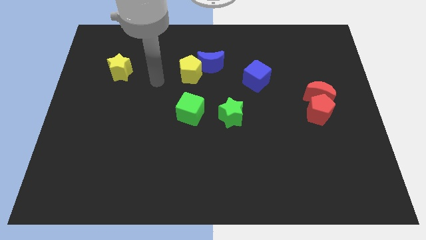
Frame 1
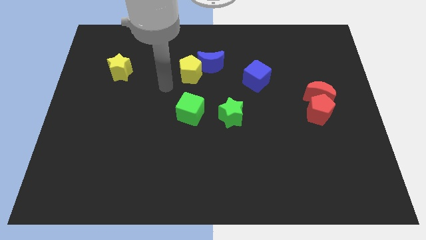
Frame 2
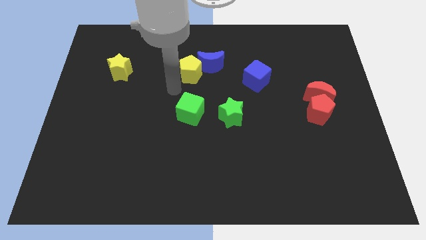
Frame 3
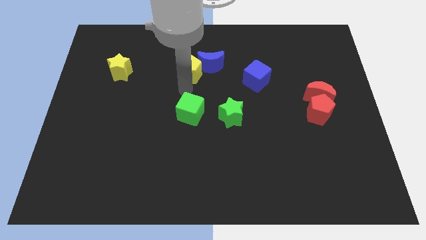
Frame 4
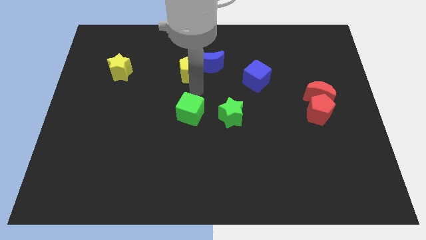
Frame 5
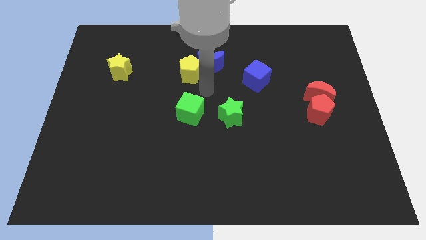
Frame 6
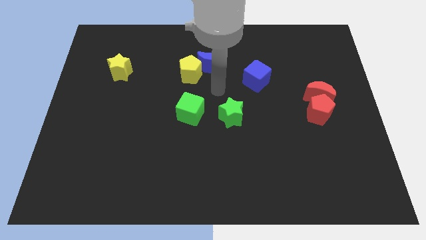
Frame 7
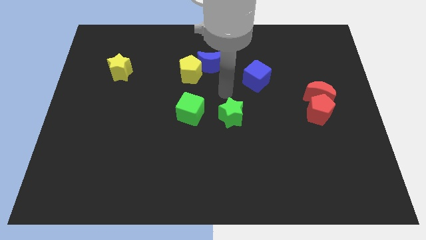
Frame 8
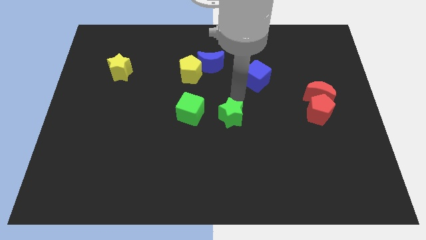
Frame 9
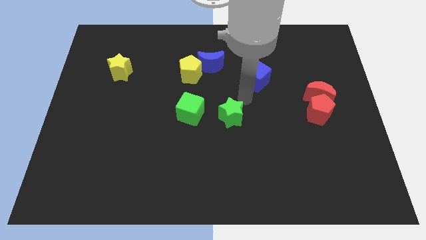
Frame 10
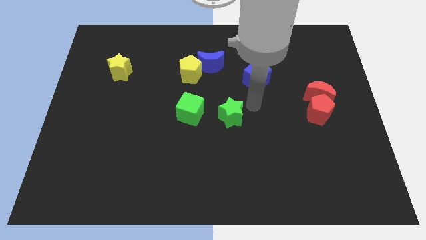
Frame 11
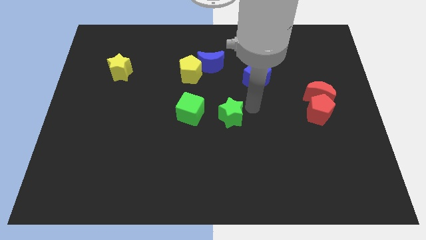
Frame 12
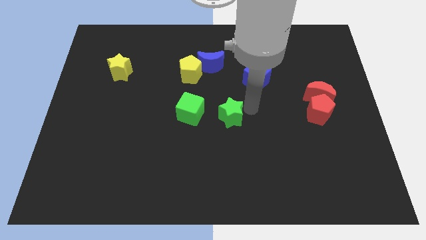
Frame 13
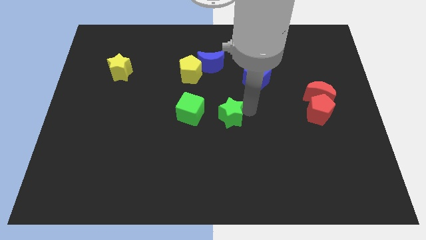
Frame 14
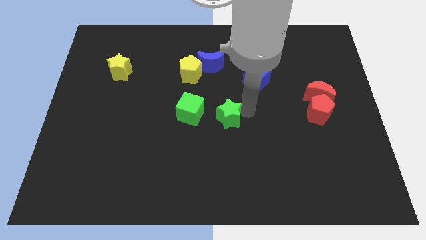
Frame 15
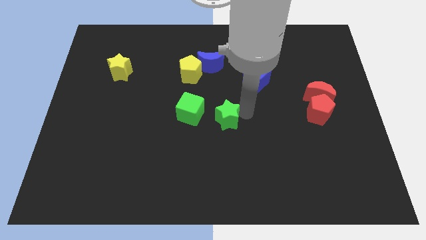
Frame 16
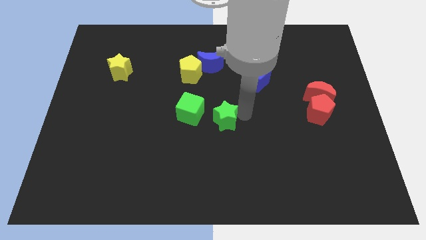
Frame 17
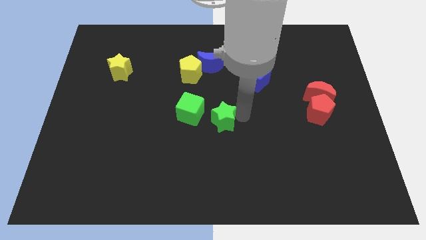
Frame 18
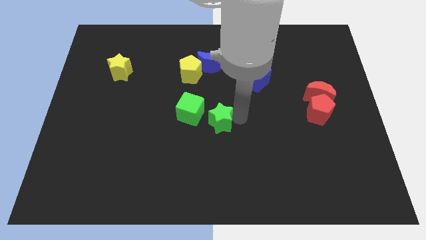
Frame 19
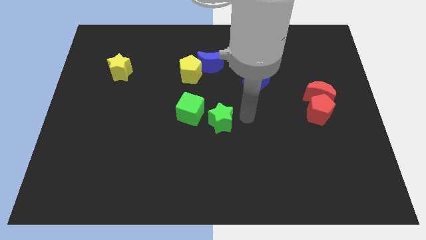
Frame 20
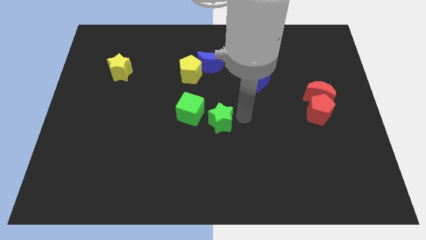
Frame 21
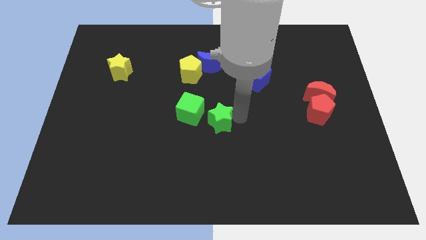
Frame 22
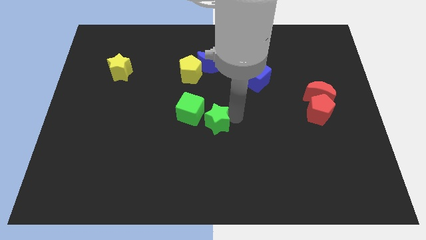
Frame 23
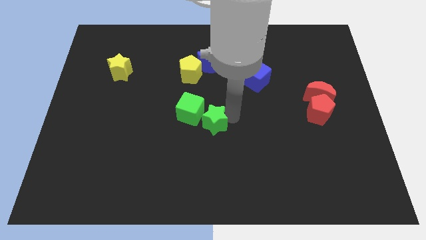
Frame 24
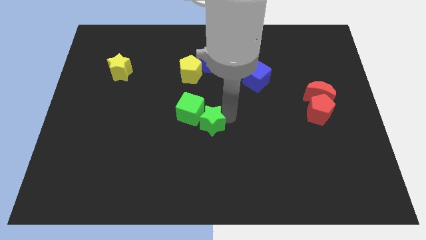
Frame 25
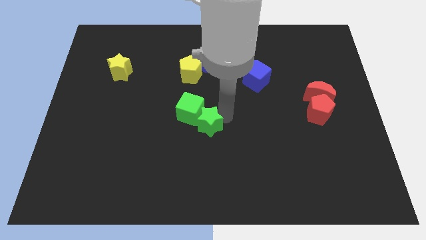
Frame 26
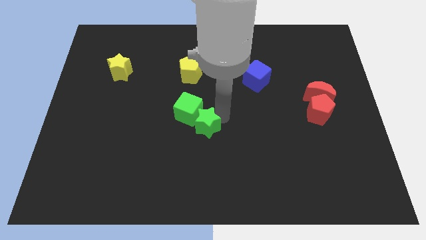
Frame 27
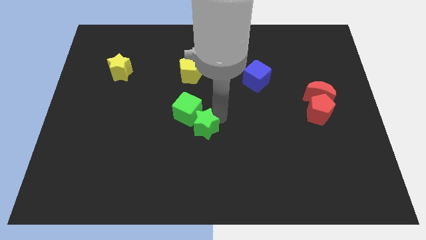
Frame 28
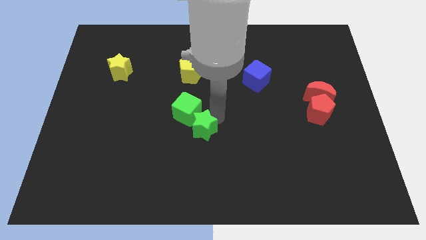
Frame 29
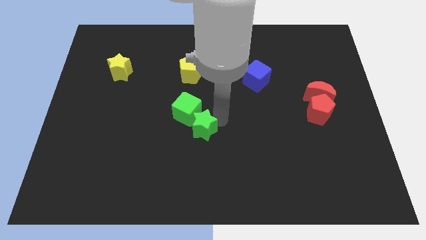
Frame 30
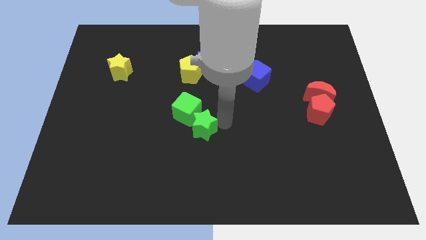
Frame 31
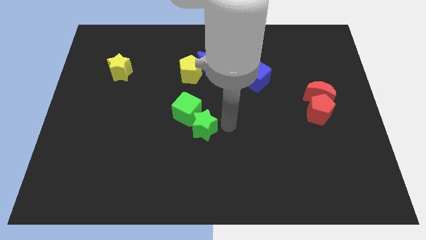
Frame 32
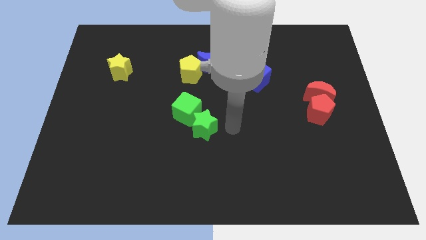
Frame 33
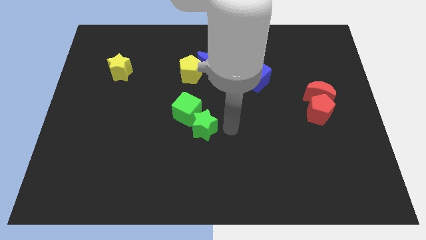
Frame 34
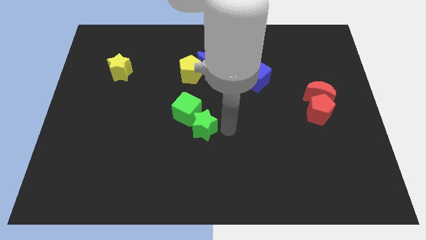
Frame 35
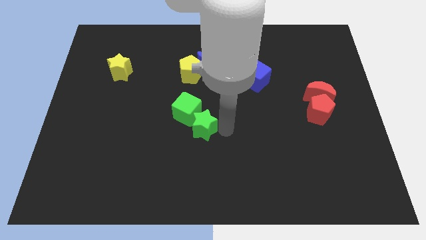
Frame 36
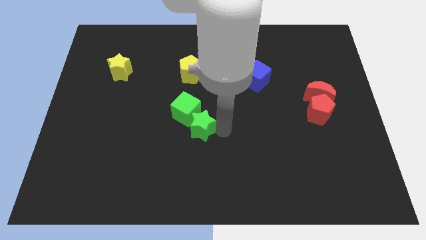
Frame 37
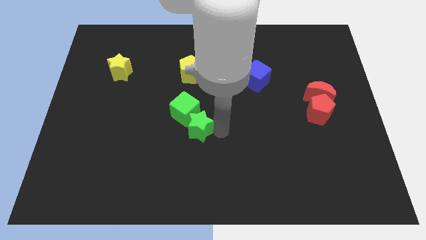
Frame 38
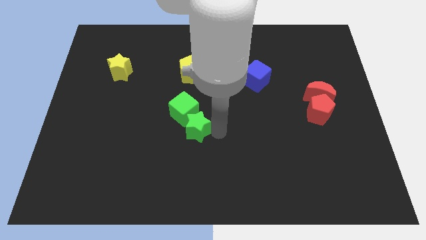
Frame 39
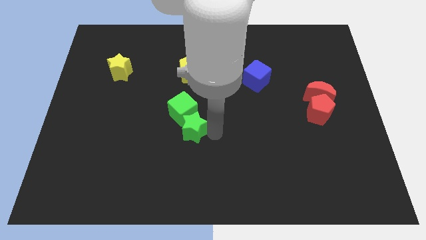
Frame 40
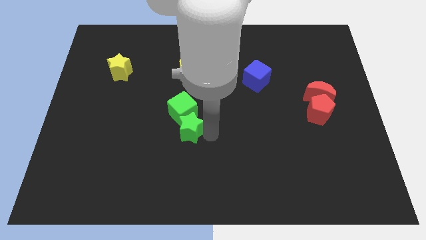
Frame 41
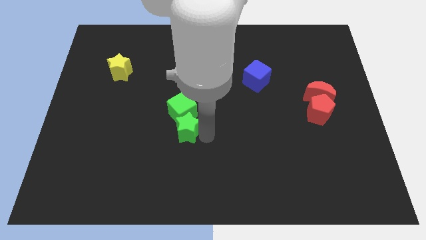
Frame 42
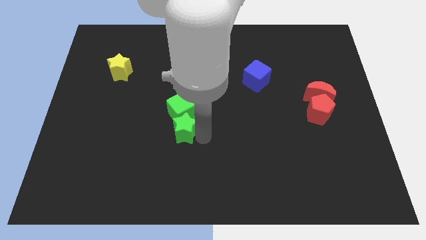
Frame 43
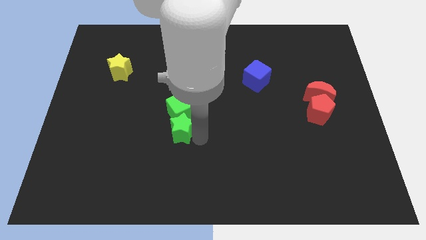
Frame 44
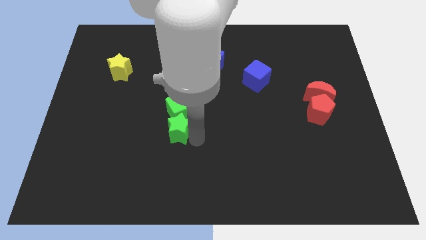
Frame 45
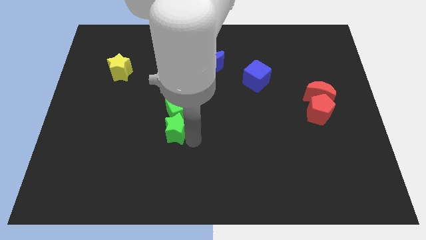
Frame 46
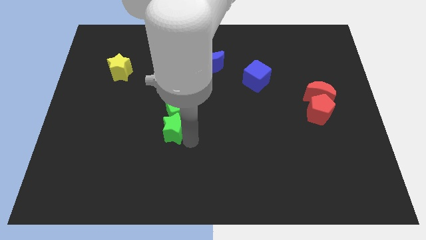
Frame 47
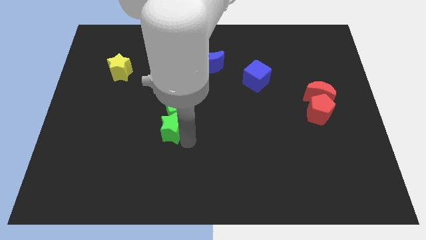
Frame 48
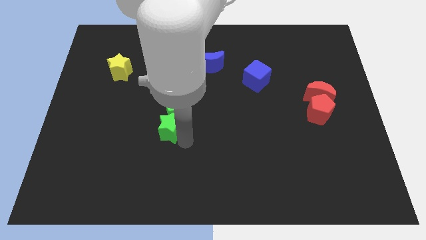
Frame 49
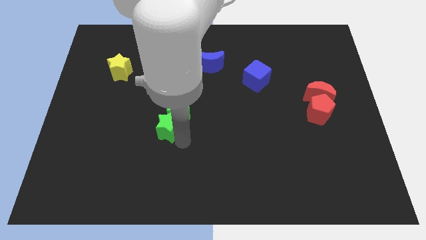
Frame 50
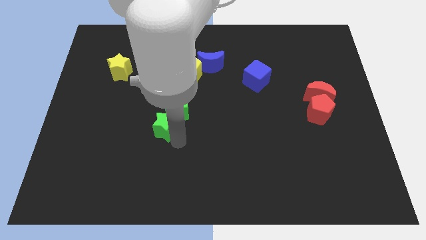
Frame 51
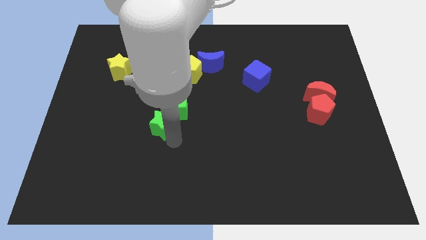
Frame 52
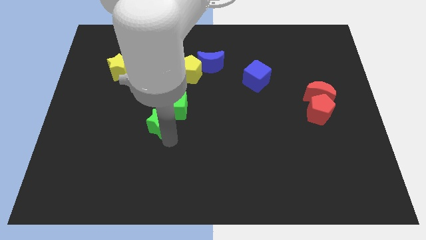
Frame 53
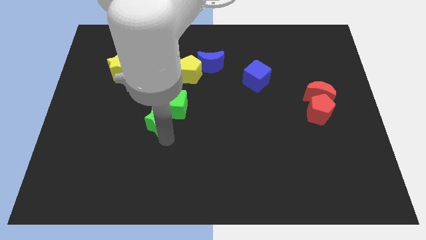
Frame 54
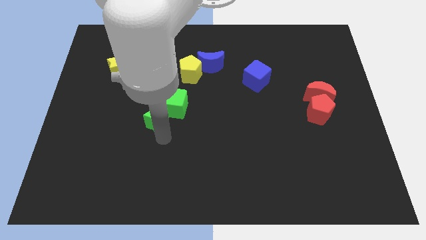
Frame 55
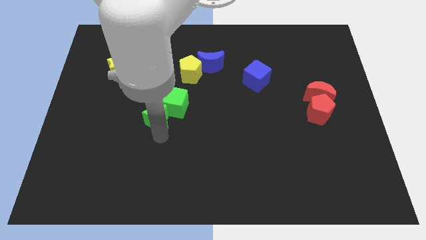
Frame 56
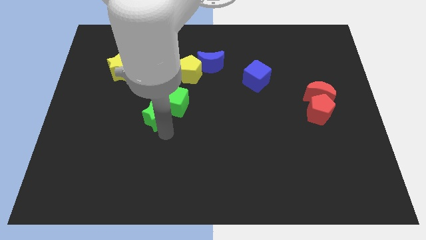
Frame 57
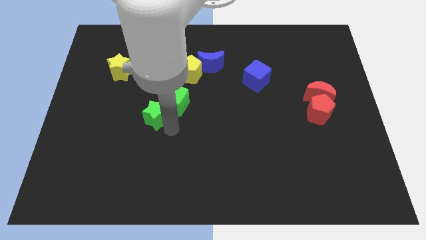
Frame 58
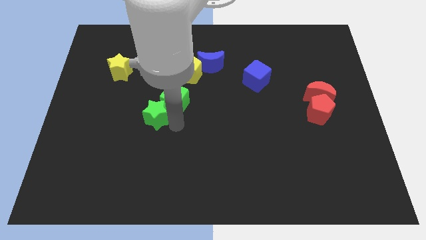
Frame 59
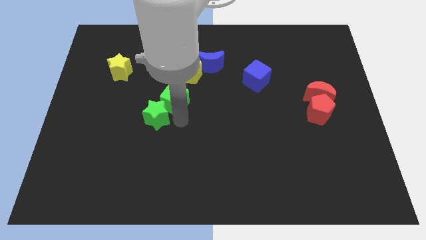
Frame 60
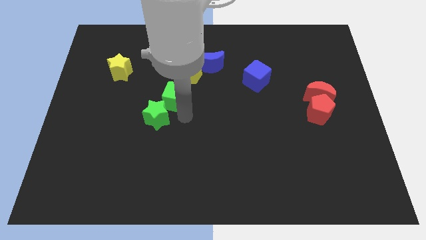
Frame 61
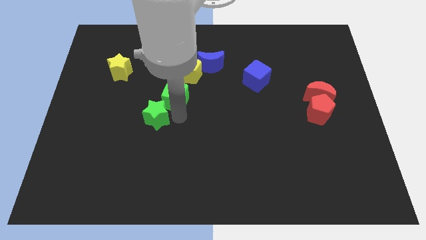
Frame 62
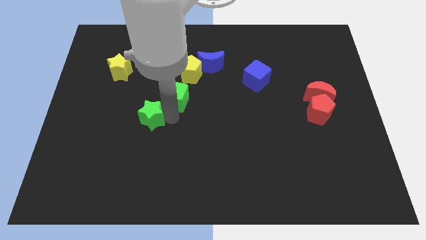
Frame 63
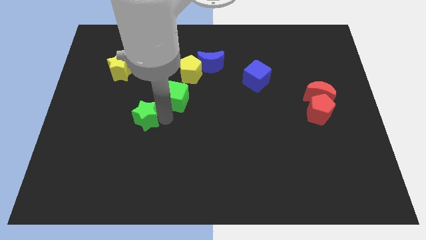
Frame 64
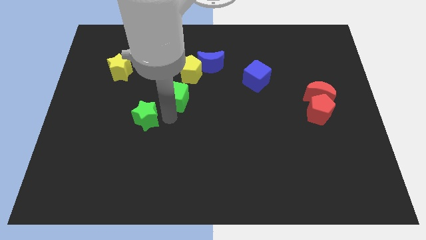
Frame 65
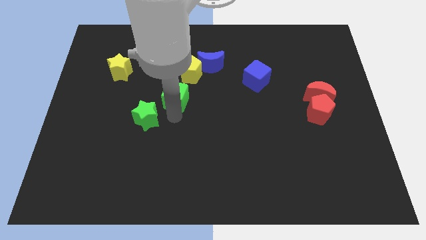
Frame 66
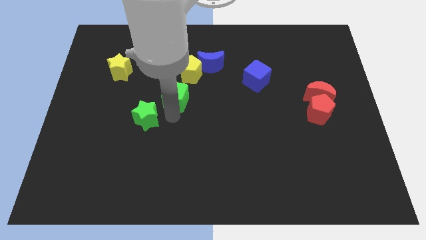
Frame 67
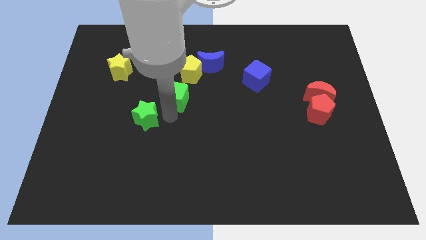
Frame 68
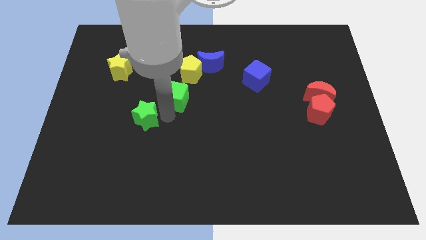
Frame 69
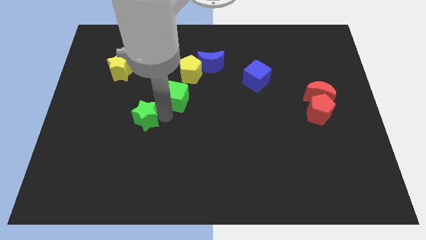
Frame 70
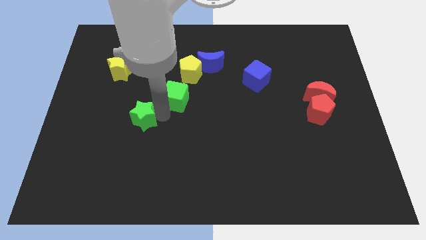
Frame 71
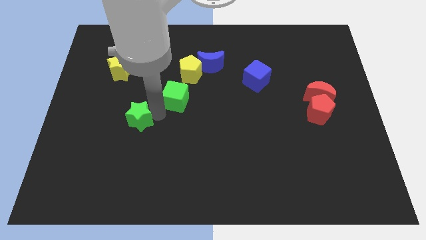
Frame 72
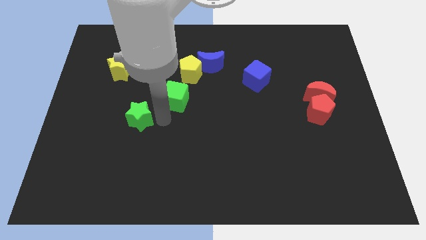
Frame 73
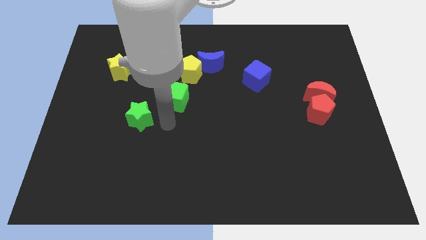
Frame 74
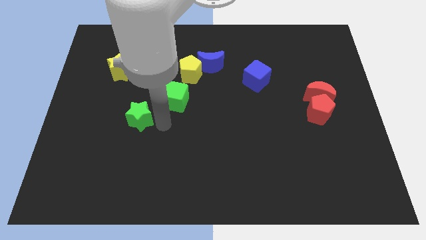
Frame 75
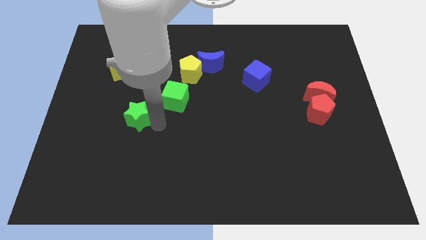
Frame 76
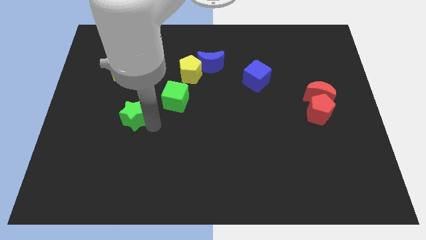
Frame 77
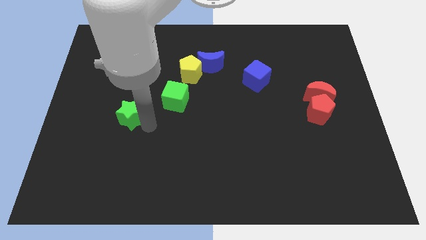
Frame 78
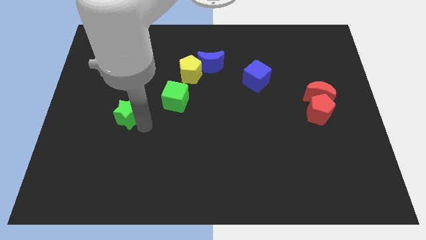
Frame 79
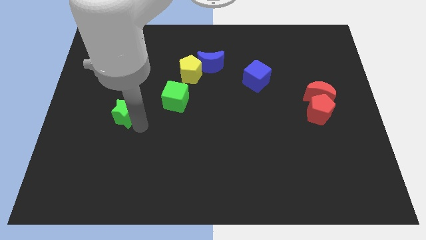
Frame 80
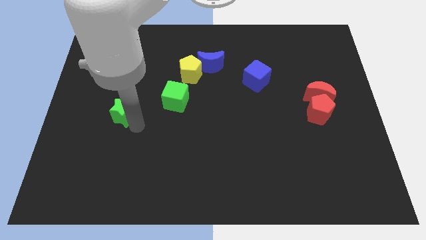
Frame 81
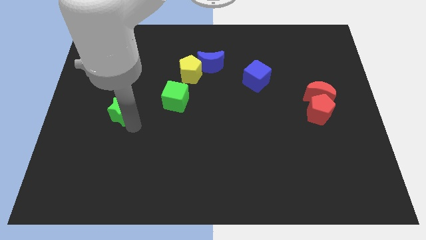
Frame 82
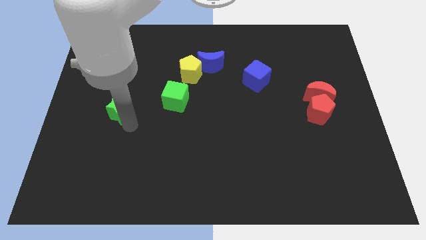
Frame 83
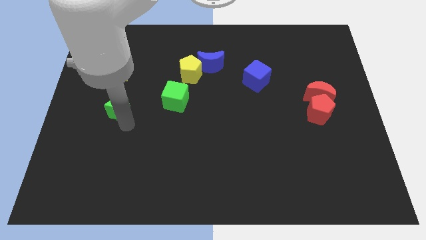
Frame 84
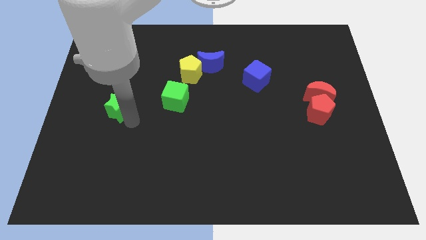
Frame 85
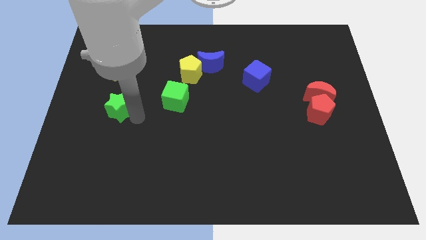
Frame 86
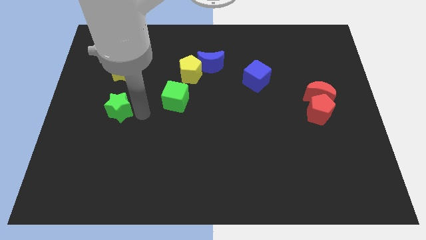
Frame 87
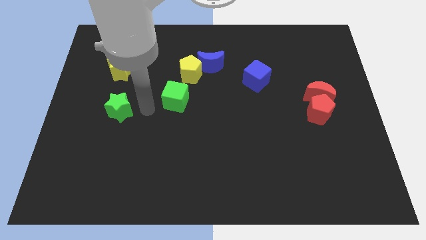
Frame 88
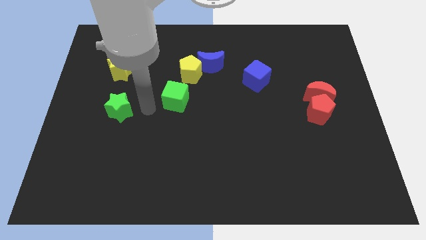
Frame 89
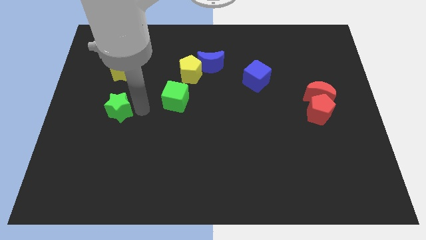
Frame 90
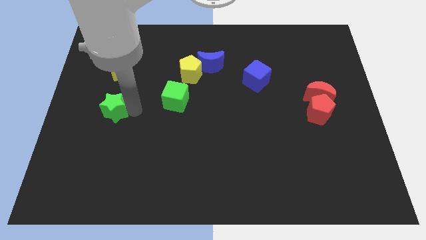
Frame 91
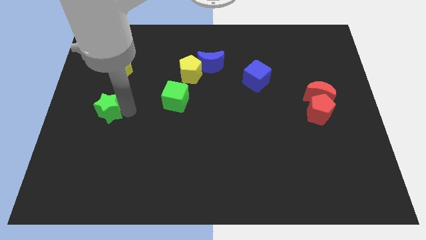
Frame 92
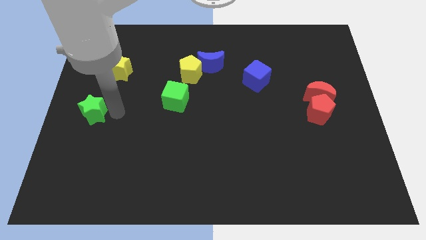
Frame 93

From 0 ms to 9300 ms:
move the green star to the left side of the board
